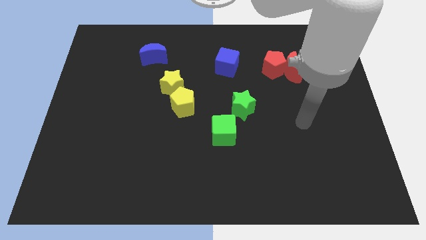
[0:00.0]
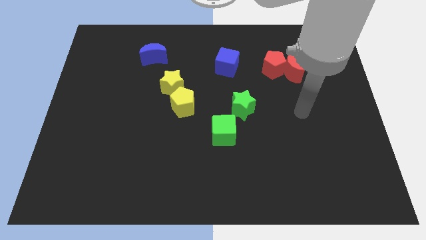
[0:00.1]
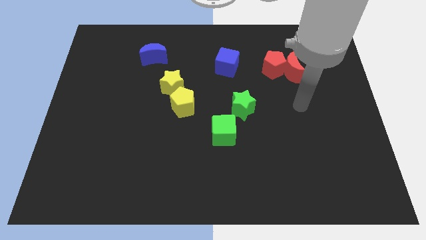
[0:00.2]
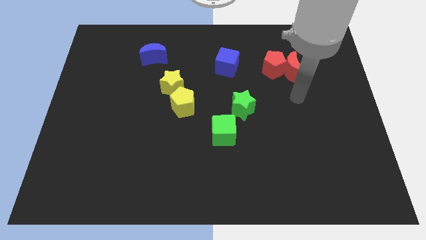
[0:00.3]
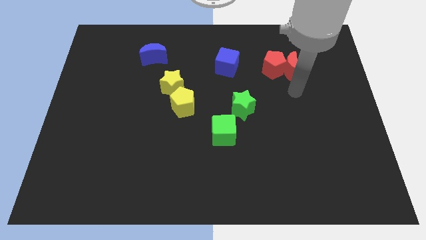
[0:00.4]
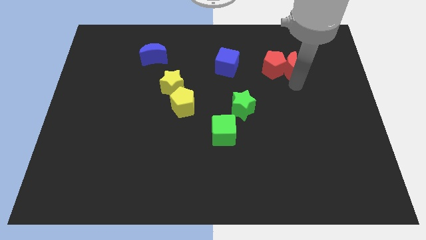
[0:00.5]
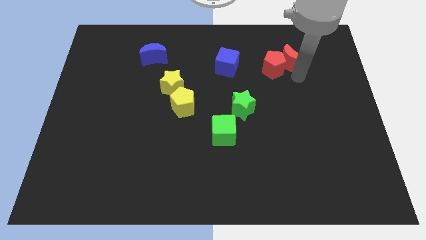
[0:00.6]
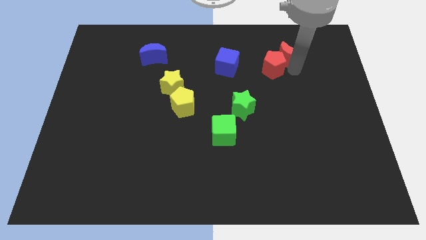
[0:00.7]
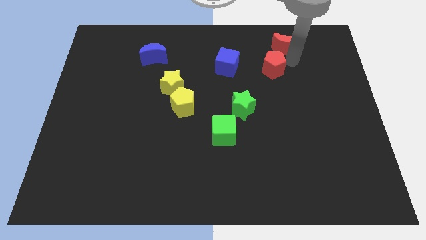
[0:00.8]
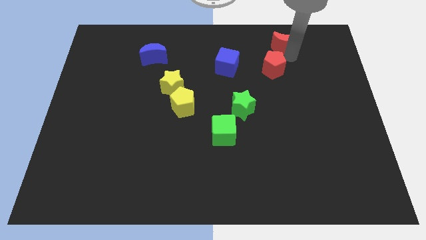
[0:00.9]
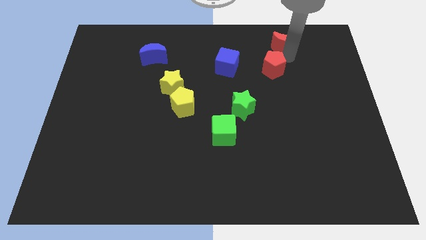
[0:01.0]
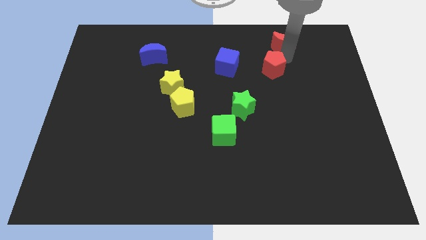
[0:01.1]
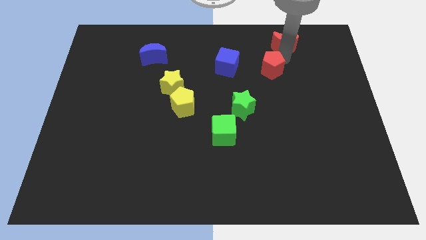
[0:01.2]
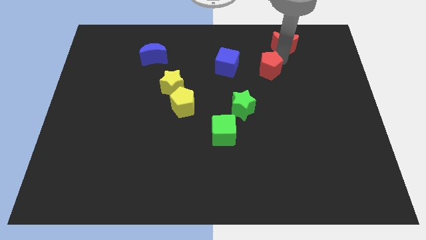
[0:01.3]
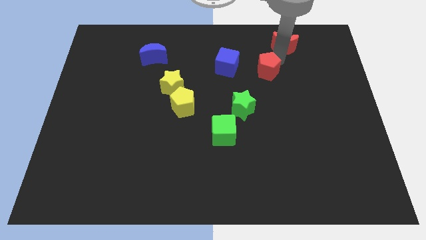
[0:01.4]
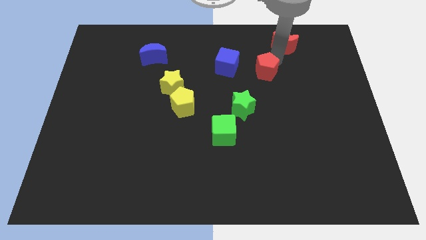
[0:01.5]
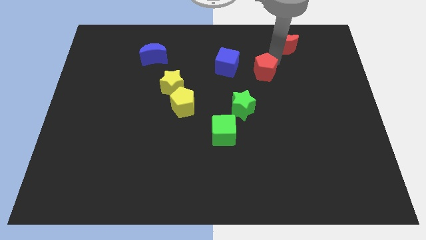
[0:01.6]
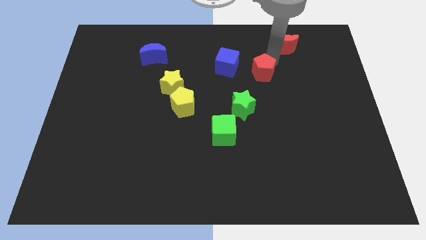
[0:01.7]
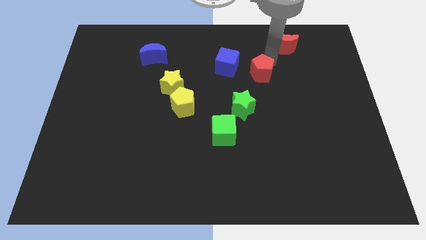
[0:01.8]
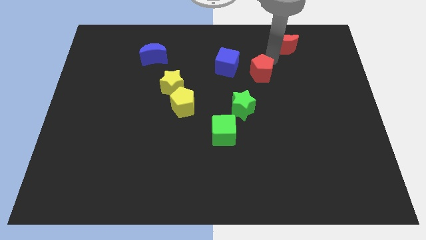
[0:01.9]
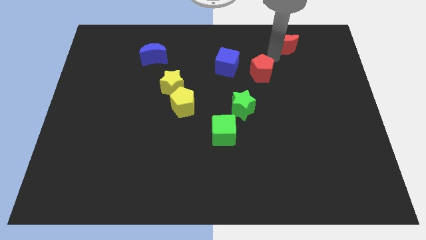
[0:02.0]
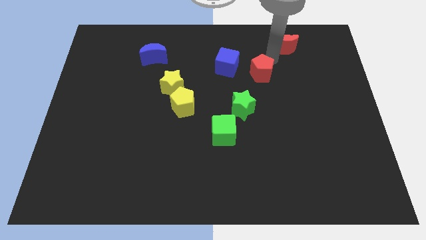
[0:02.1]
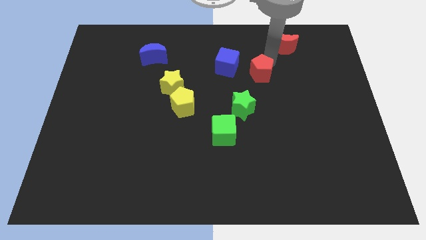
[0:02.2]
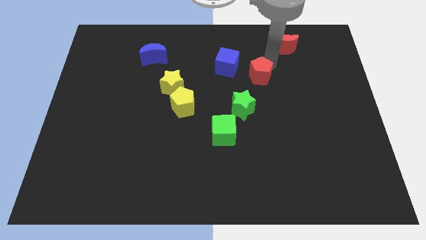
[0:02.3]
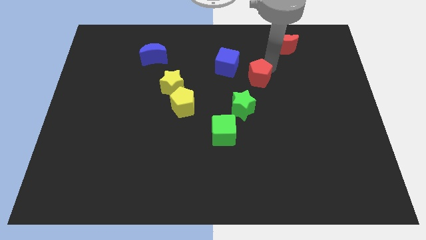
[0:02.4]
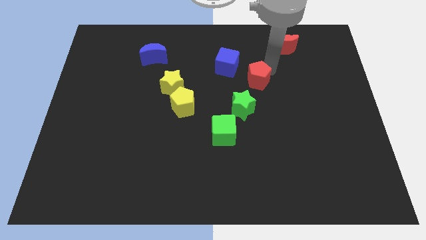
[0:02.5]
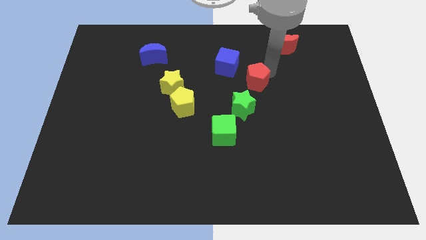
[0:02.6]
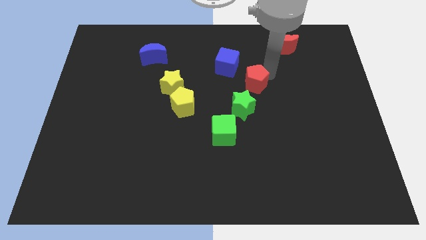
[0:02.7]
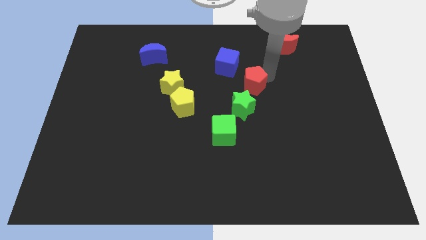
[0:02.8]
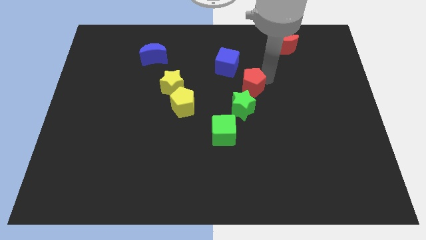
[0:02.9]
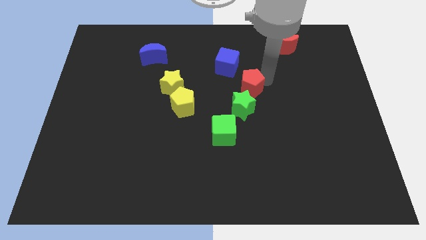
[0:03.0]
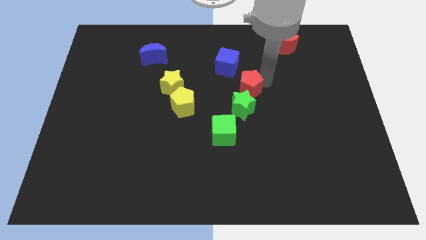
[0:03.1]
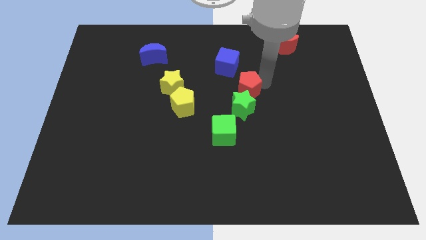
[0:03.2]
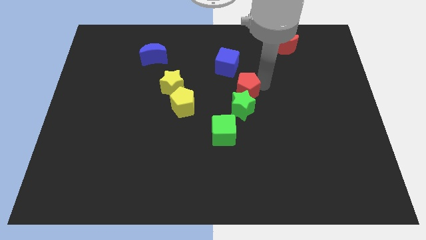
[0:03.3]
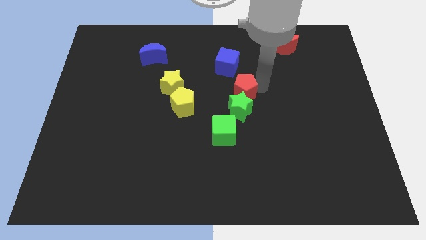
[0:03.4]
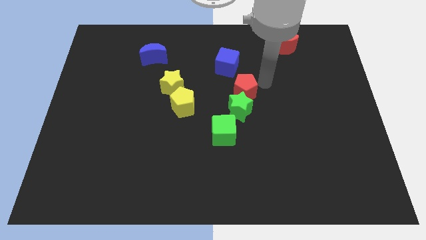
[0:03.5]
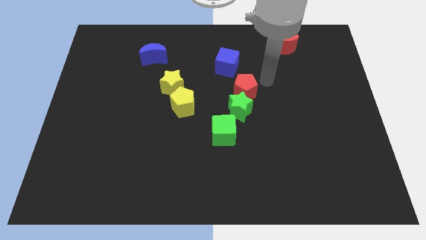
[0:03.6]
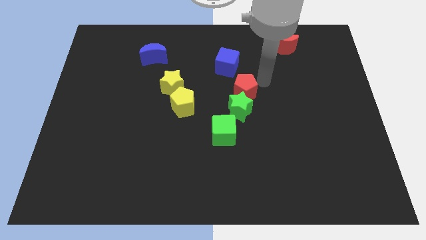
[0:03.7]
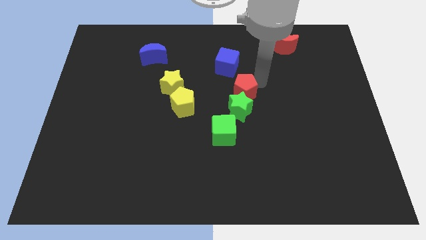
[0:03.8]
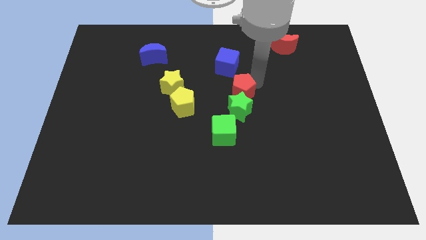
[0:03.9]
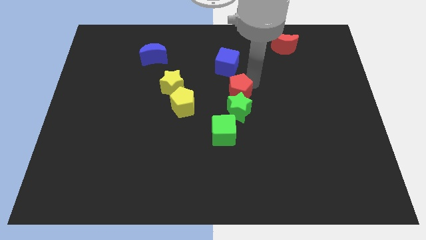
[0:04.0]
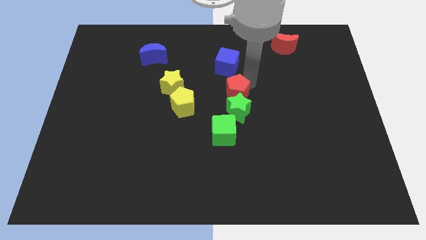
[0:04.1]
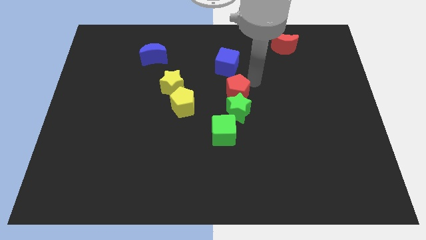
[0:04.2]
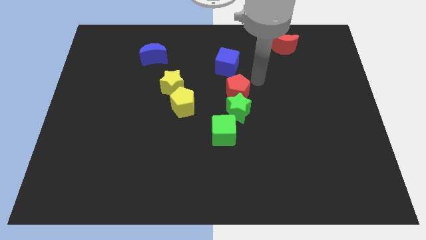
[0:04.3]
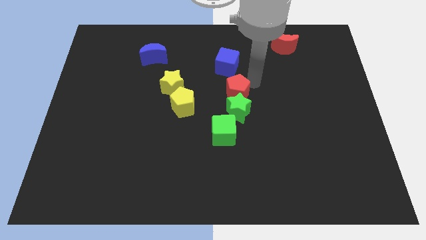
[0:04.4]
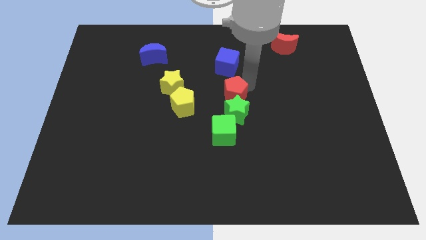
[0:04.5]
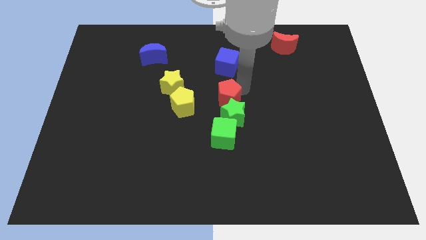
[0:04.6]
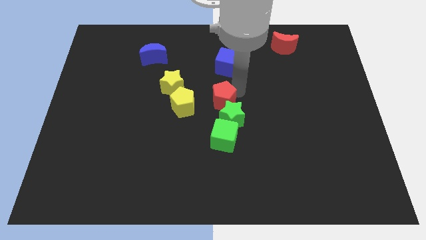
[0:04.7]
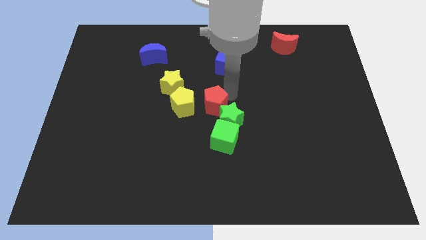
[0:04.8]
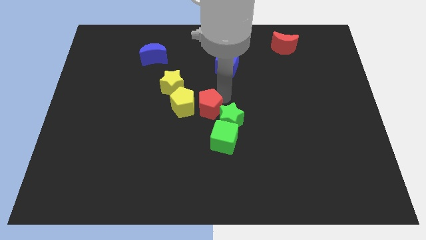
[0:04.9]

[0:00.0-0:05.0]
put the red pentagon to the top left side of the green cube

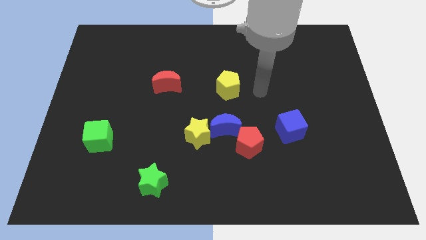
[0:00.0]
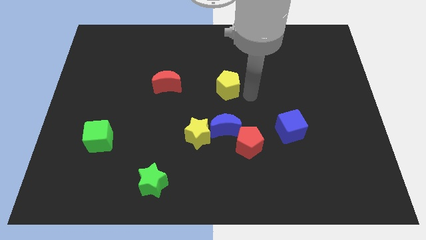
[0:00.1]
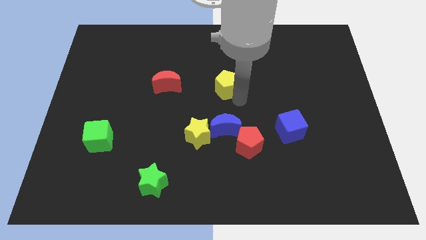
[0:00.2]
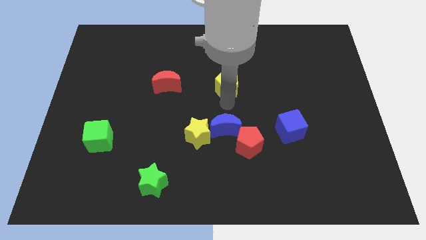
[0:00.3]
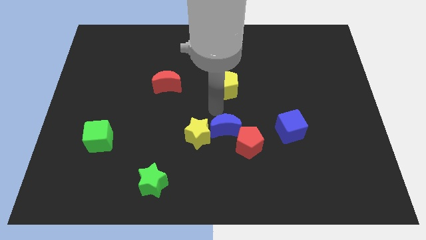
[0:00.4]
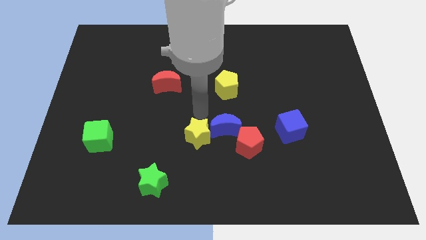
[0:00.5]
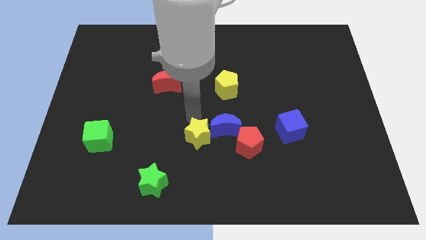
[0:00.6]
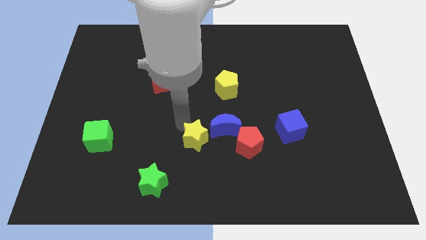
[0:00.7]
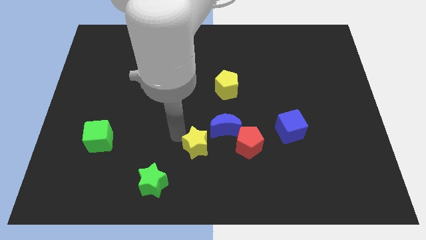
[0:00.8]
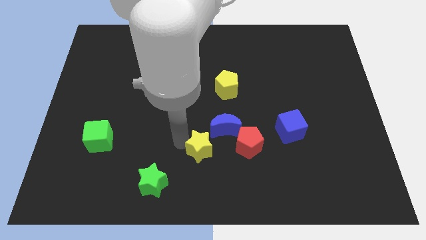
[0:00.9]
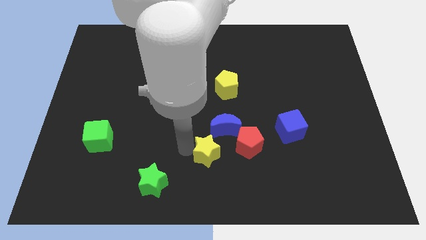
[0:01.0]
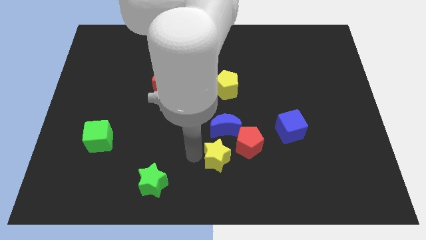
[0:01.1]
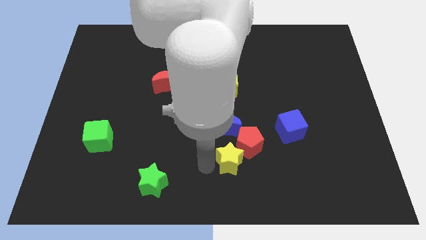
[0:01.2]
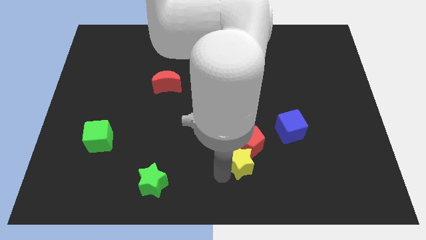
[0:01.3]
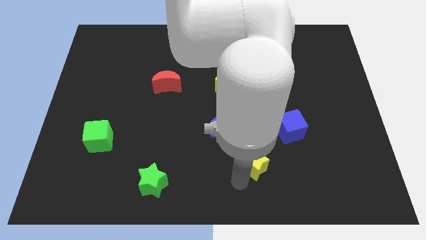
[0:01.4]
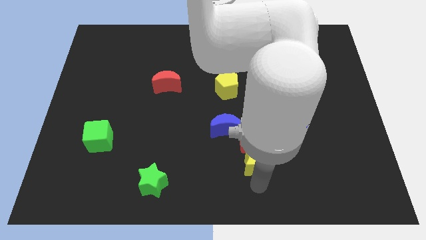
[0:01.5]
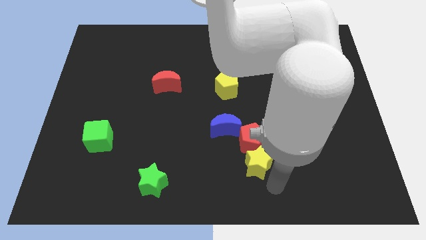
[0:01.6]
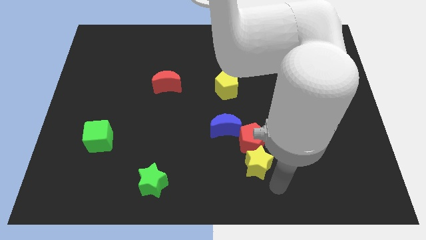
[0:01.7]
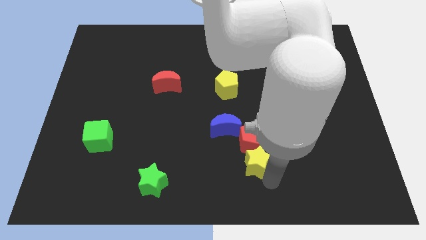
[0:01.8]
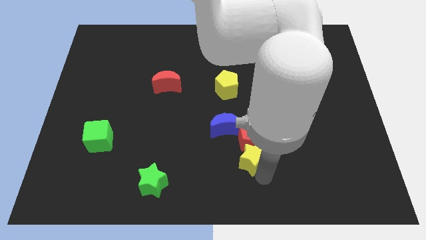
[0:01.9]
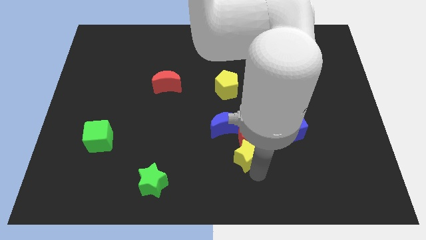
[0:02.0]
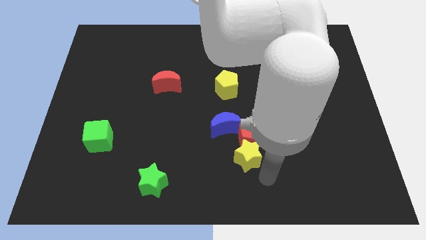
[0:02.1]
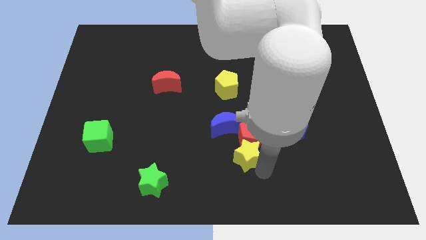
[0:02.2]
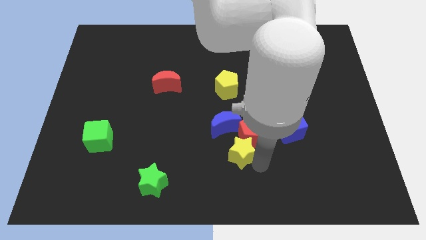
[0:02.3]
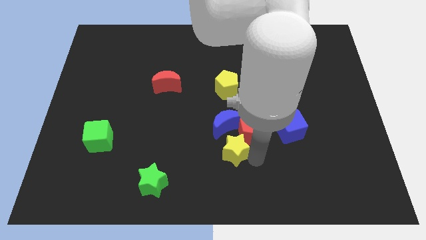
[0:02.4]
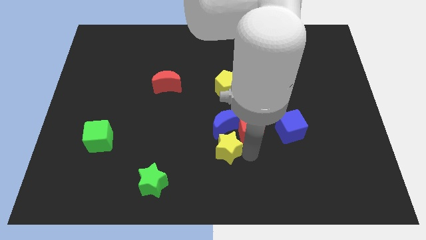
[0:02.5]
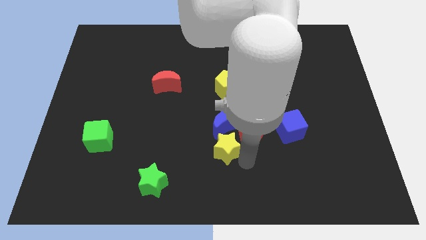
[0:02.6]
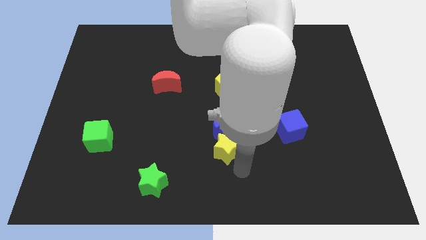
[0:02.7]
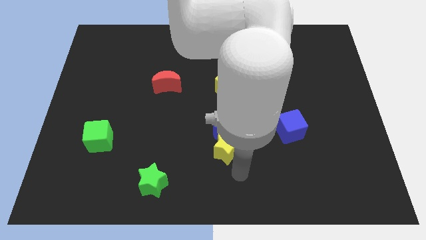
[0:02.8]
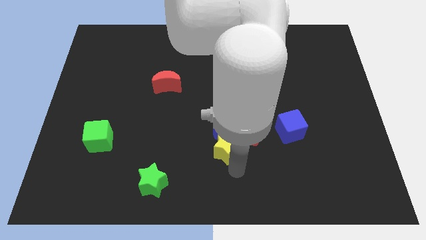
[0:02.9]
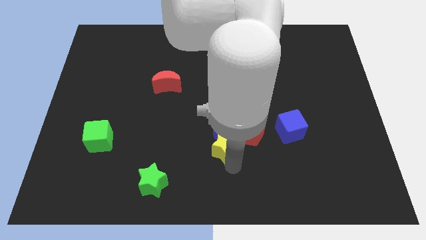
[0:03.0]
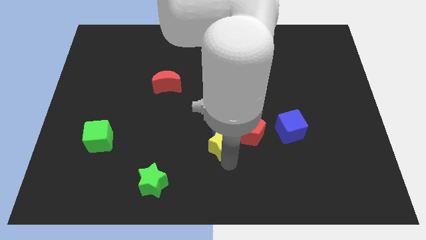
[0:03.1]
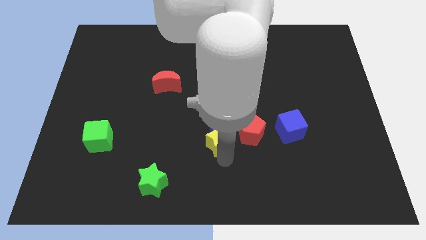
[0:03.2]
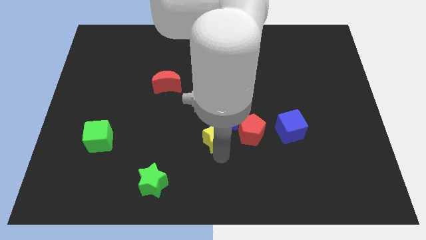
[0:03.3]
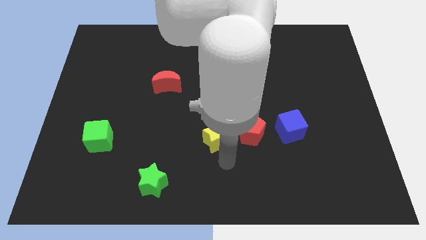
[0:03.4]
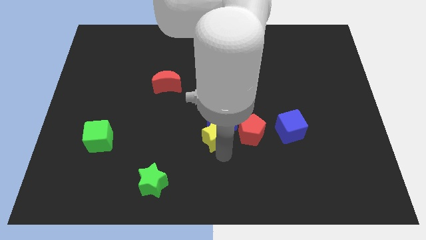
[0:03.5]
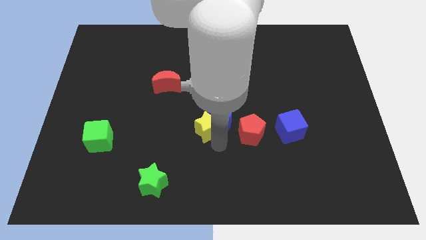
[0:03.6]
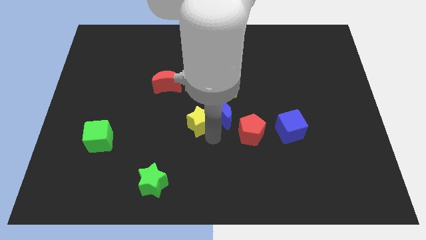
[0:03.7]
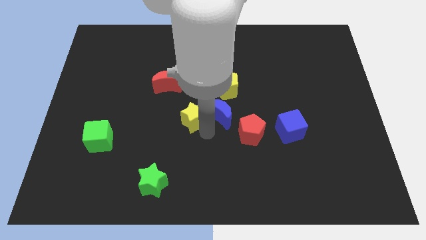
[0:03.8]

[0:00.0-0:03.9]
push the yellow star to the top left side of the blue moon
